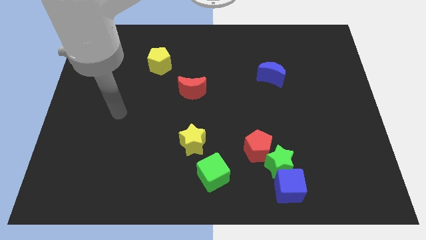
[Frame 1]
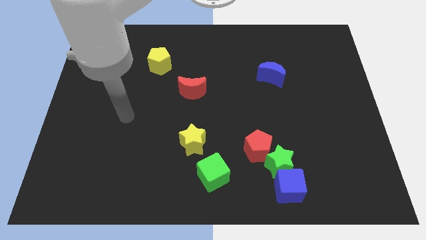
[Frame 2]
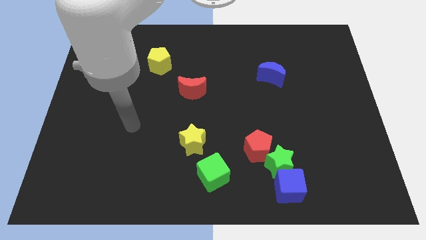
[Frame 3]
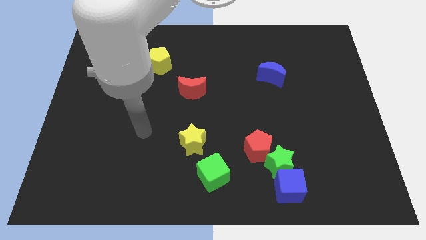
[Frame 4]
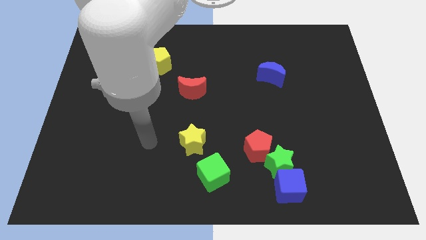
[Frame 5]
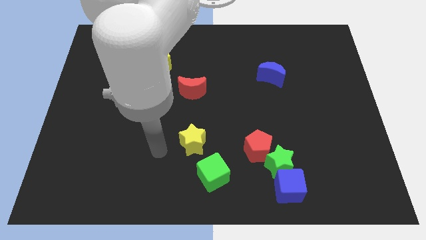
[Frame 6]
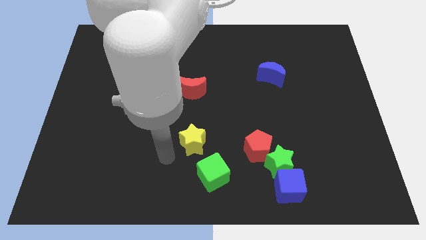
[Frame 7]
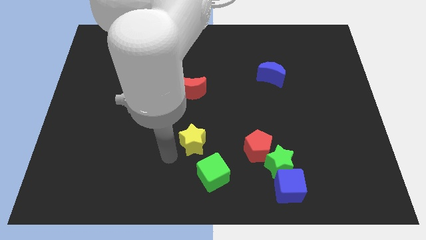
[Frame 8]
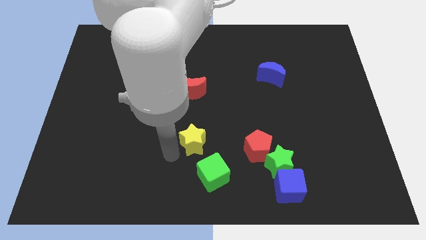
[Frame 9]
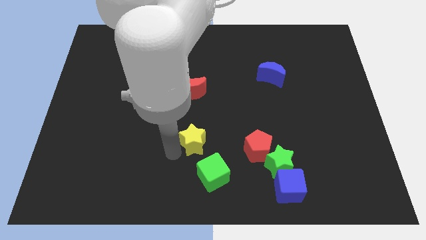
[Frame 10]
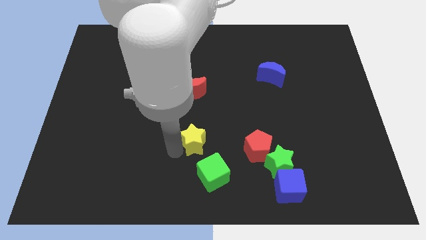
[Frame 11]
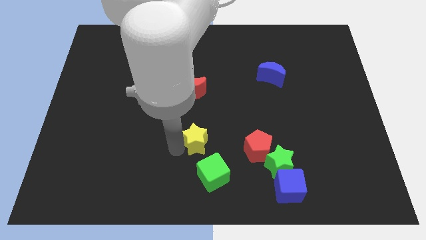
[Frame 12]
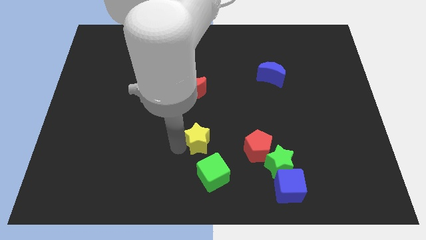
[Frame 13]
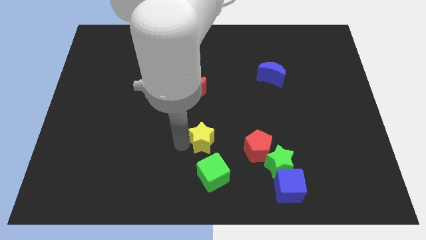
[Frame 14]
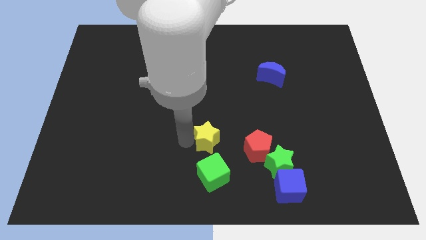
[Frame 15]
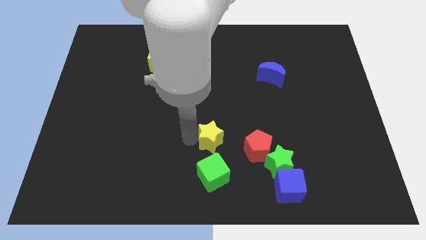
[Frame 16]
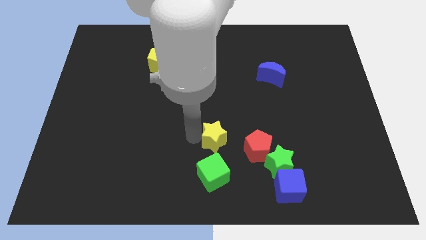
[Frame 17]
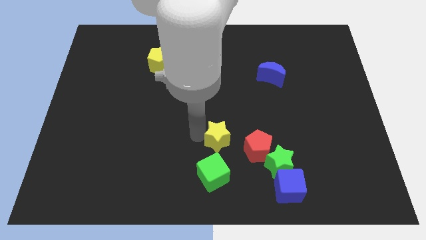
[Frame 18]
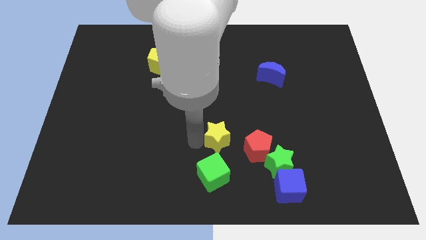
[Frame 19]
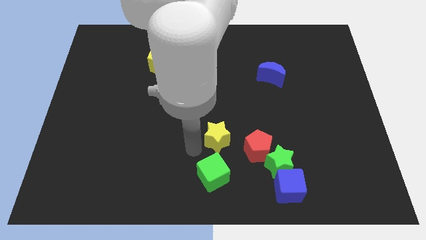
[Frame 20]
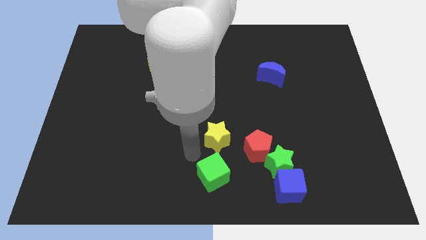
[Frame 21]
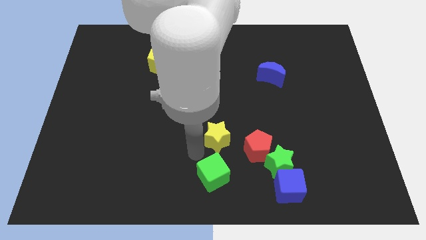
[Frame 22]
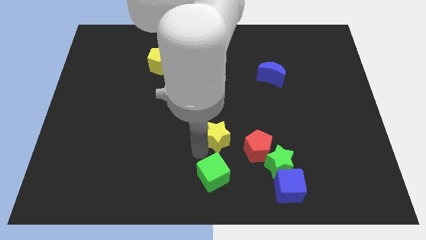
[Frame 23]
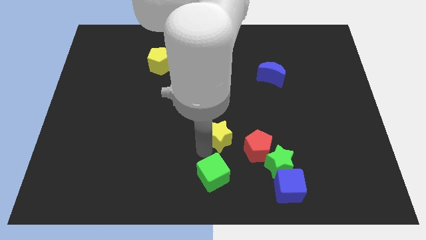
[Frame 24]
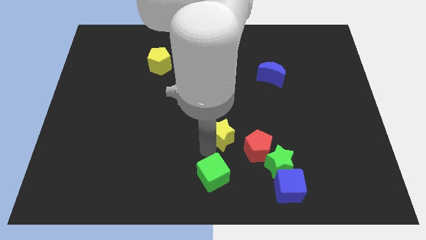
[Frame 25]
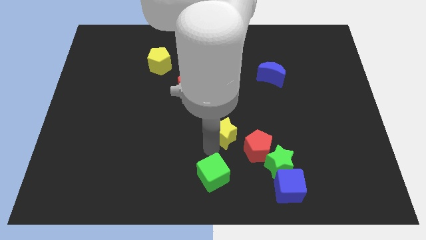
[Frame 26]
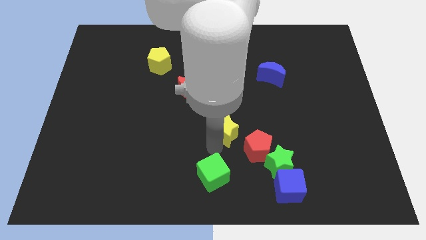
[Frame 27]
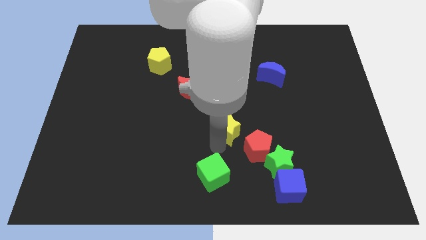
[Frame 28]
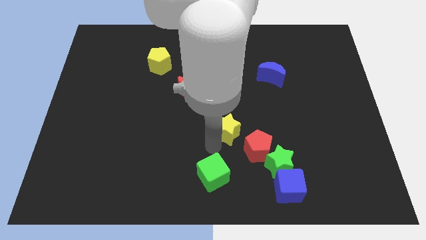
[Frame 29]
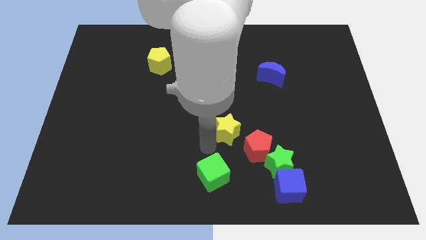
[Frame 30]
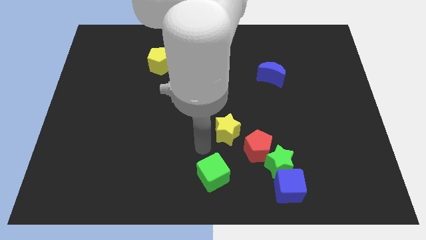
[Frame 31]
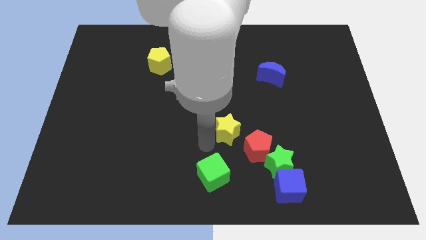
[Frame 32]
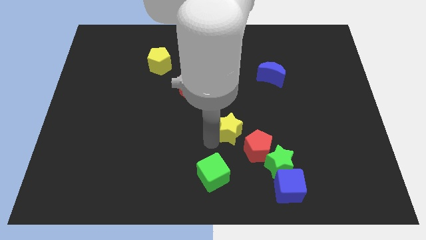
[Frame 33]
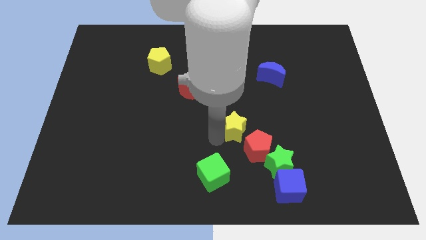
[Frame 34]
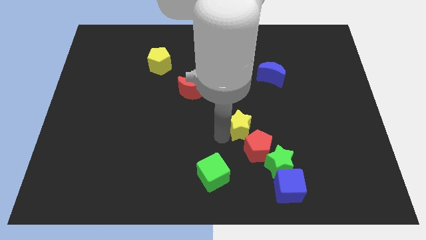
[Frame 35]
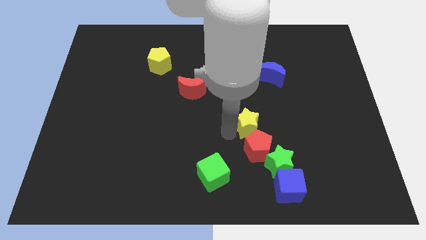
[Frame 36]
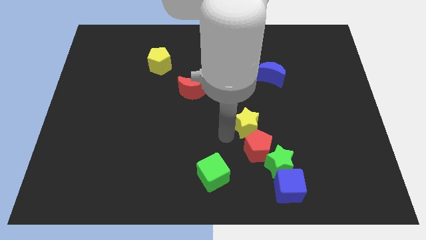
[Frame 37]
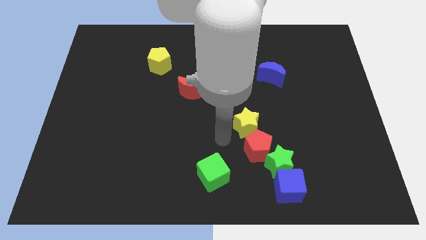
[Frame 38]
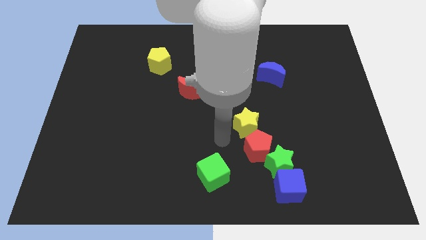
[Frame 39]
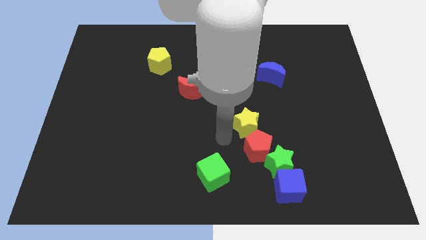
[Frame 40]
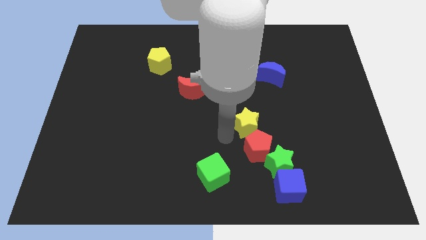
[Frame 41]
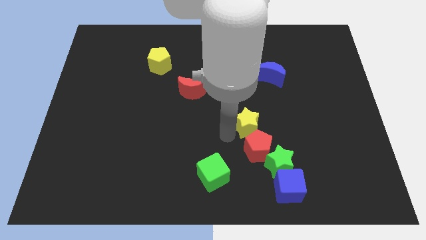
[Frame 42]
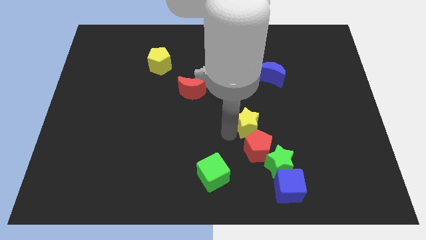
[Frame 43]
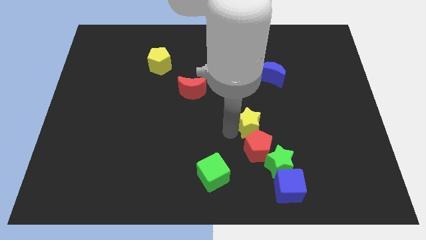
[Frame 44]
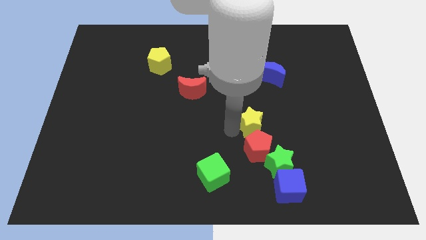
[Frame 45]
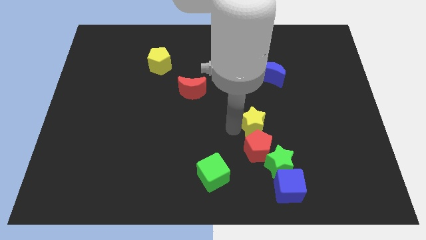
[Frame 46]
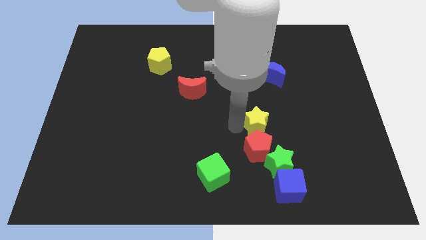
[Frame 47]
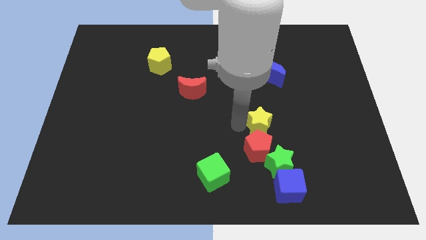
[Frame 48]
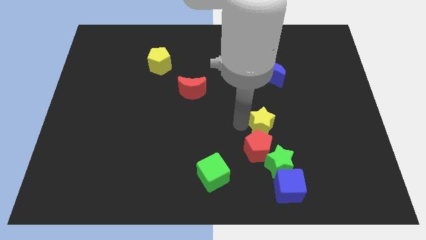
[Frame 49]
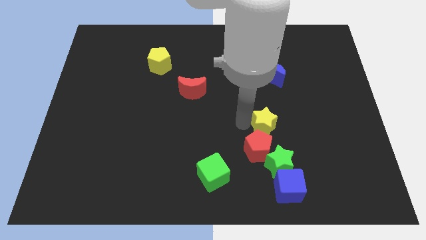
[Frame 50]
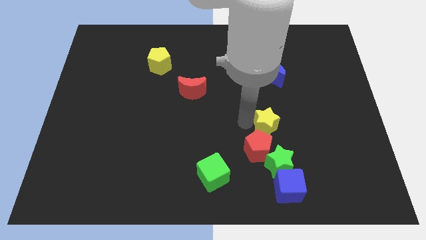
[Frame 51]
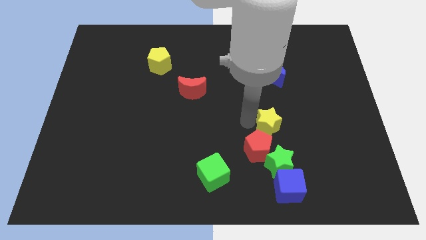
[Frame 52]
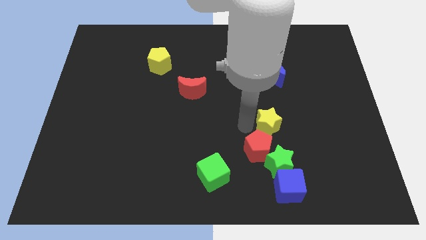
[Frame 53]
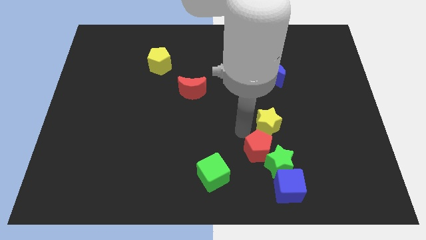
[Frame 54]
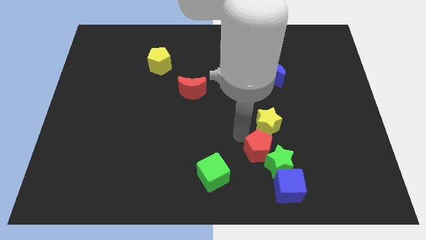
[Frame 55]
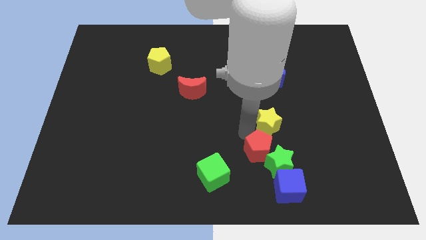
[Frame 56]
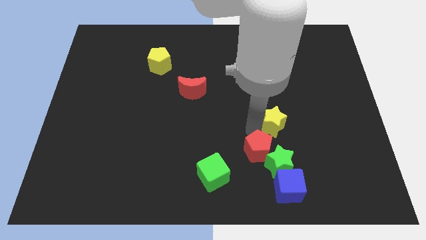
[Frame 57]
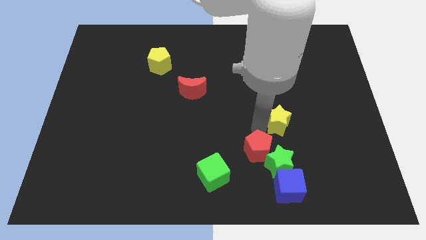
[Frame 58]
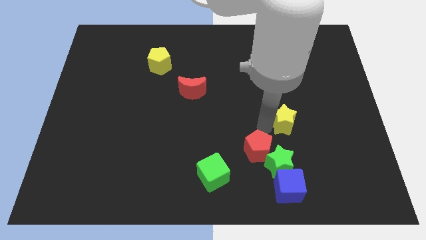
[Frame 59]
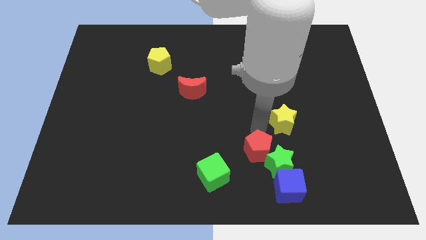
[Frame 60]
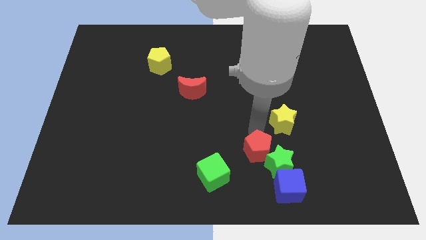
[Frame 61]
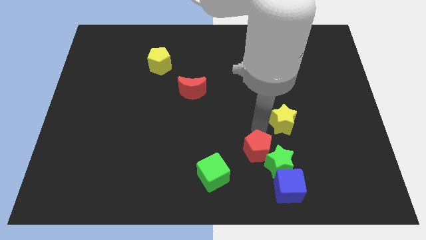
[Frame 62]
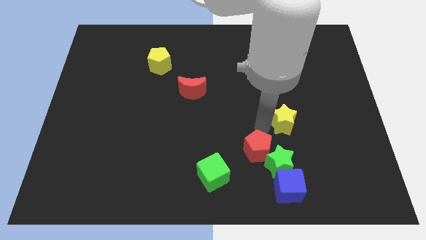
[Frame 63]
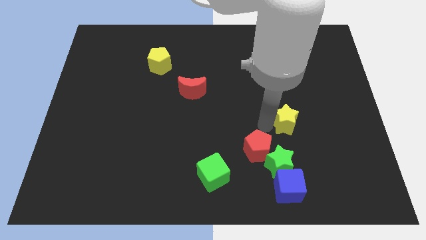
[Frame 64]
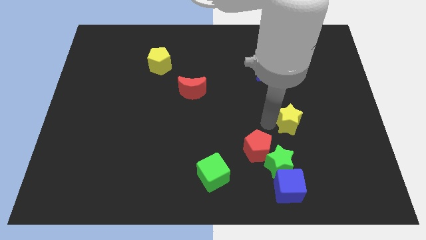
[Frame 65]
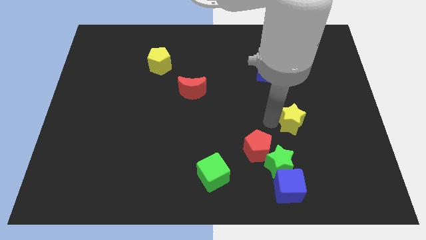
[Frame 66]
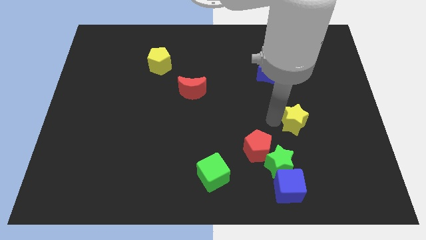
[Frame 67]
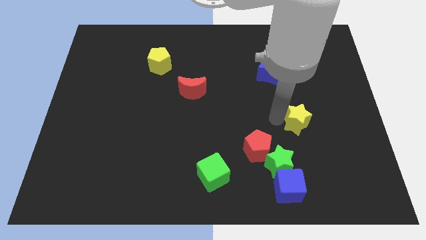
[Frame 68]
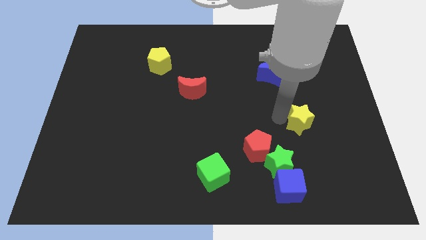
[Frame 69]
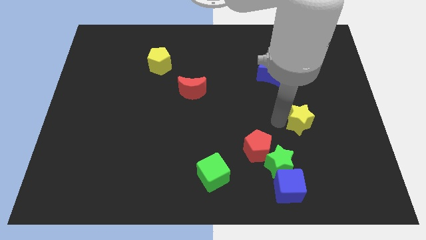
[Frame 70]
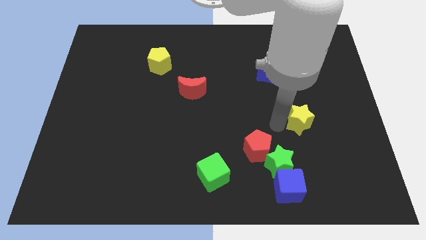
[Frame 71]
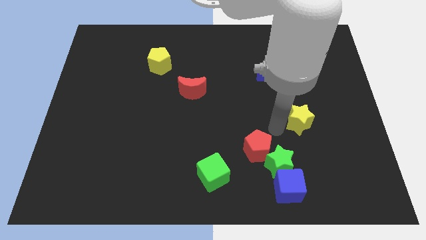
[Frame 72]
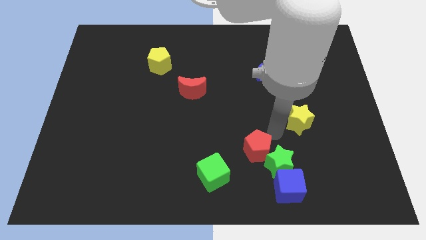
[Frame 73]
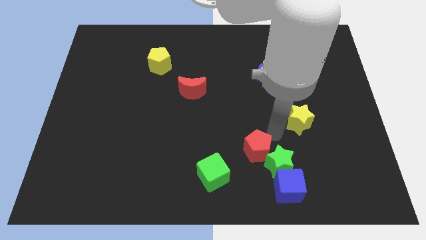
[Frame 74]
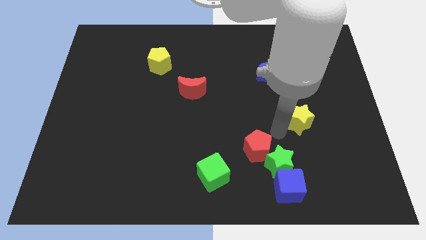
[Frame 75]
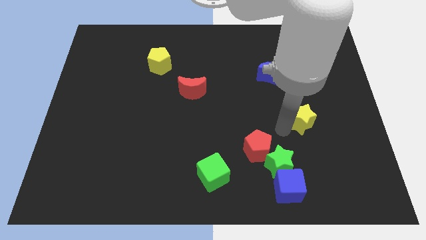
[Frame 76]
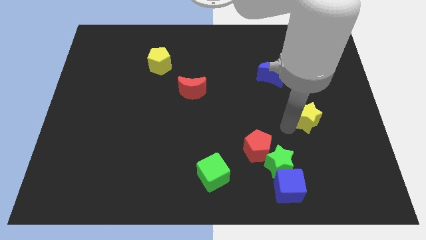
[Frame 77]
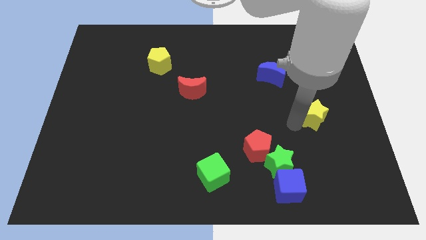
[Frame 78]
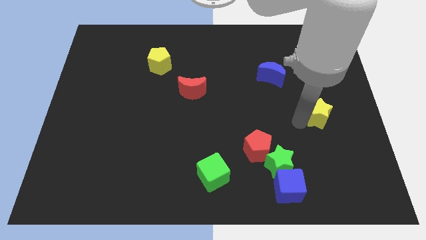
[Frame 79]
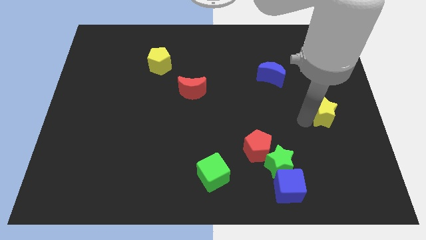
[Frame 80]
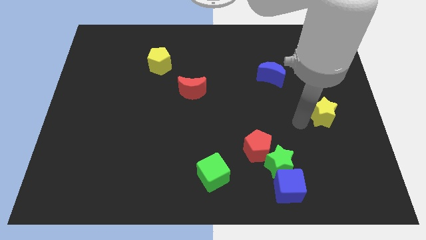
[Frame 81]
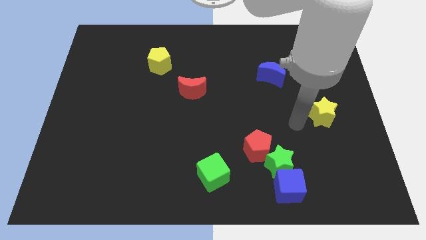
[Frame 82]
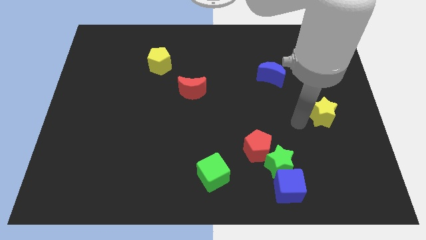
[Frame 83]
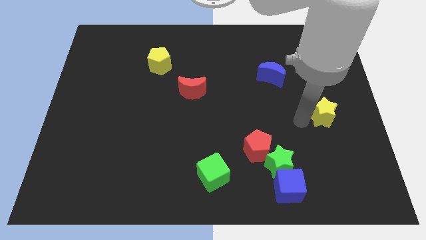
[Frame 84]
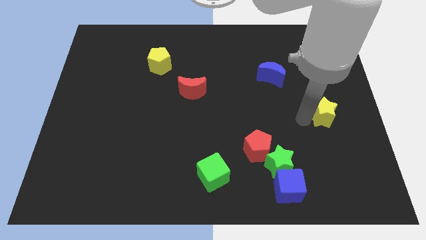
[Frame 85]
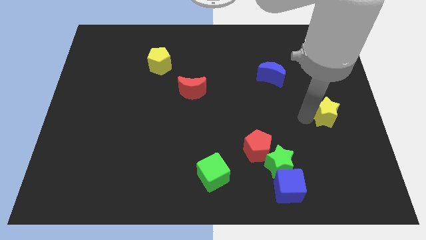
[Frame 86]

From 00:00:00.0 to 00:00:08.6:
push the yellow star to the right side
